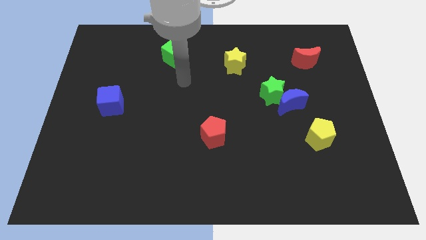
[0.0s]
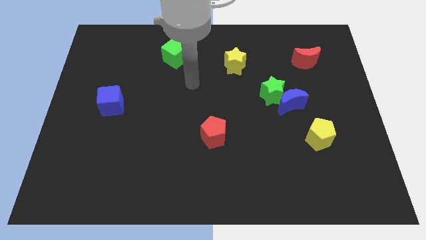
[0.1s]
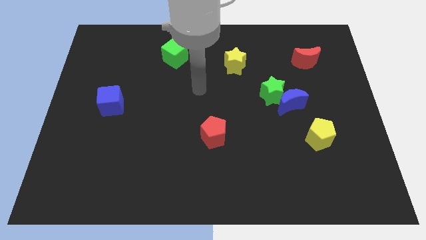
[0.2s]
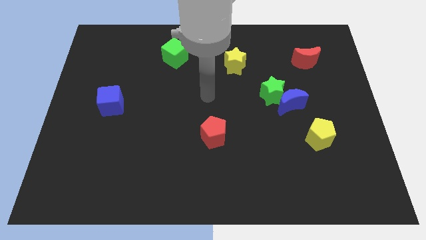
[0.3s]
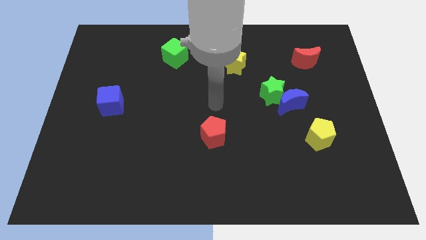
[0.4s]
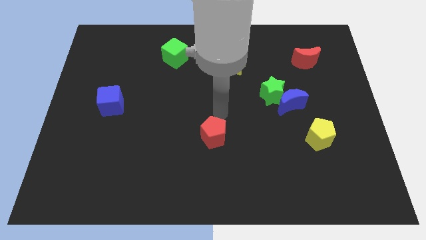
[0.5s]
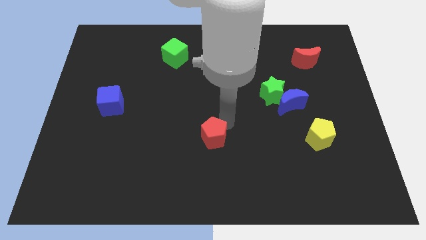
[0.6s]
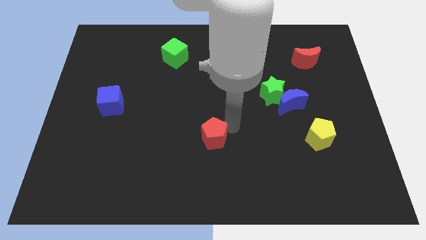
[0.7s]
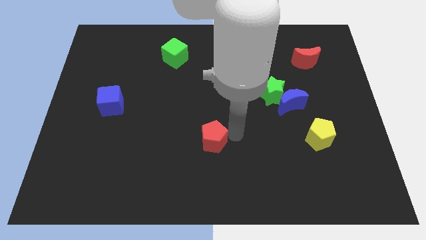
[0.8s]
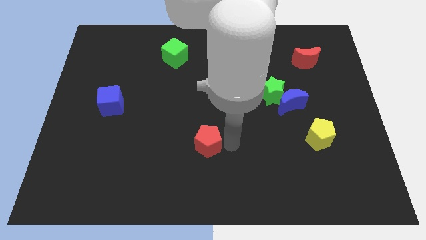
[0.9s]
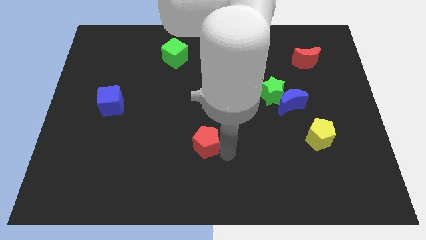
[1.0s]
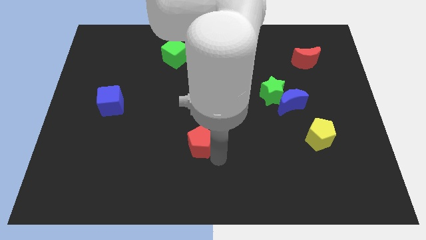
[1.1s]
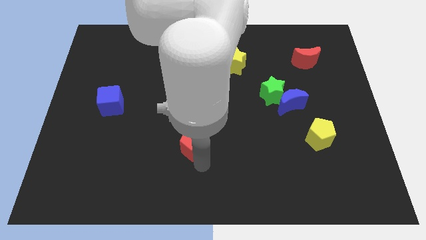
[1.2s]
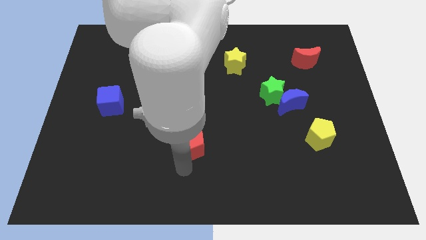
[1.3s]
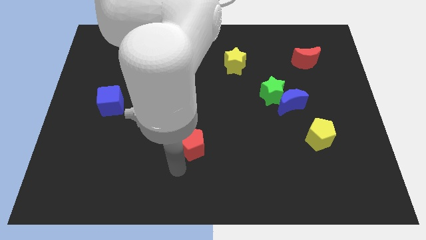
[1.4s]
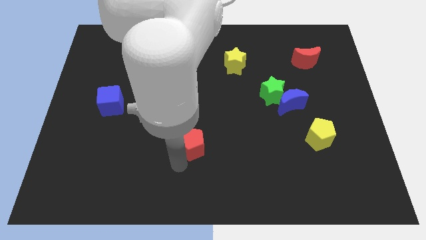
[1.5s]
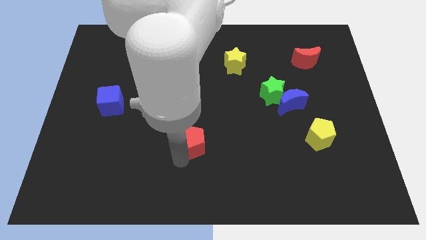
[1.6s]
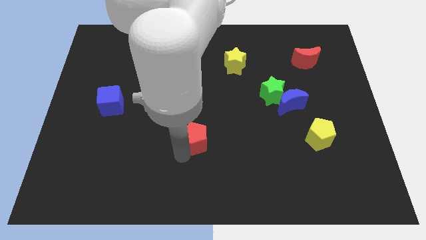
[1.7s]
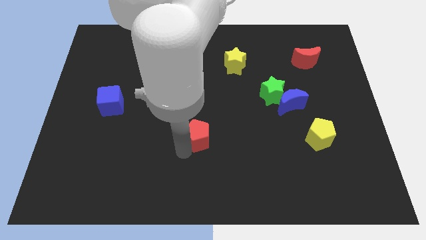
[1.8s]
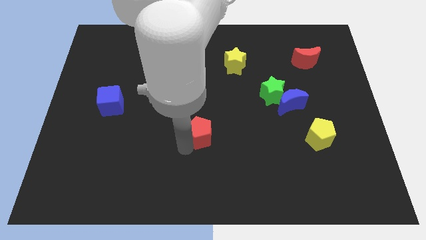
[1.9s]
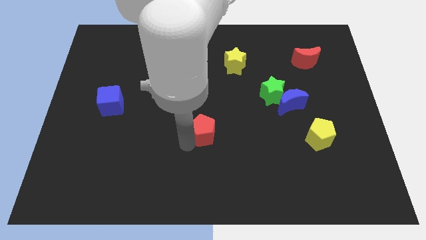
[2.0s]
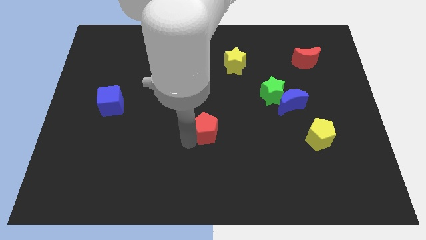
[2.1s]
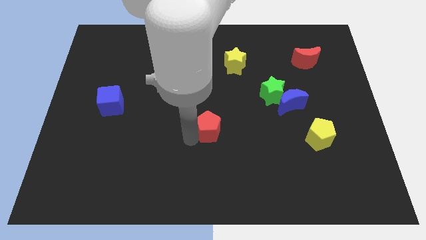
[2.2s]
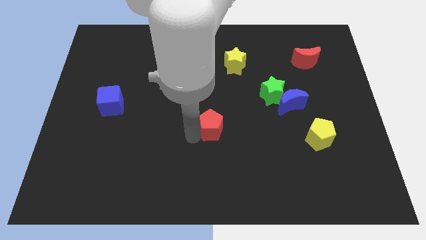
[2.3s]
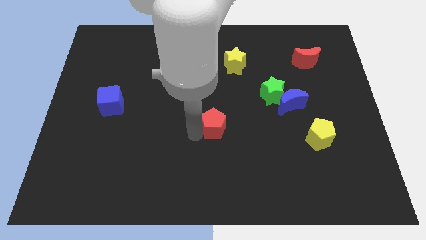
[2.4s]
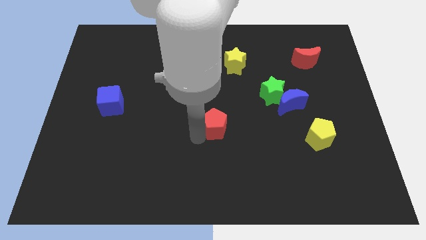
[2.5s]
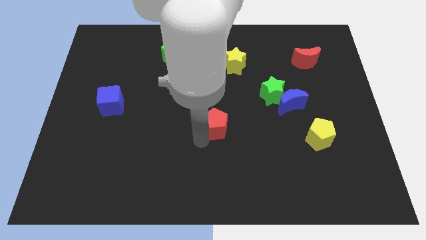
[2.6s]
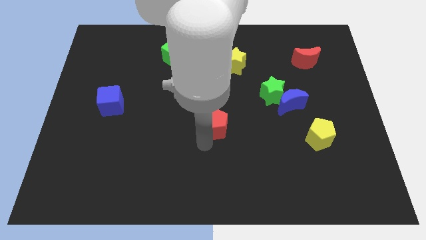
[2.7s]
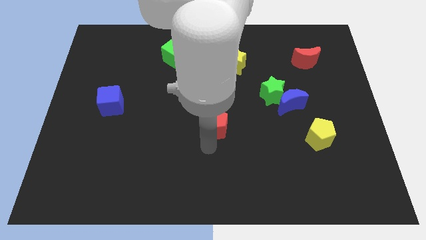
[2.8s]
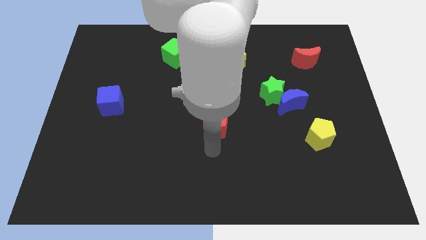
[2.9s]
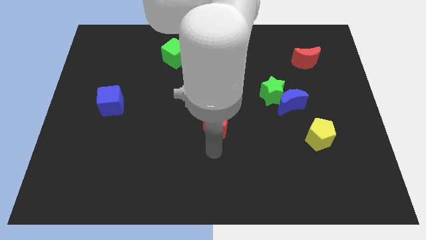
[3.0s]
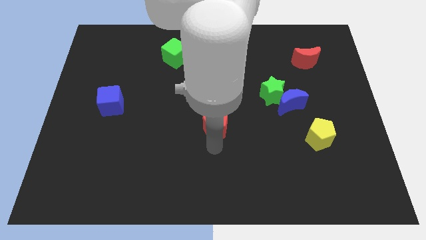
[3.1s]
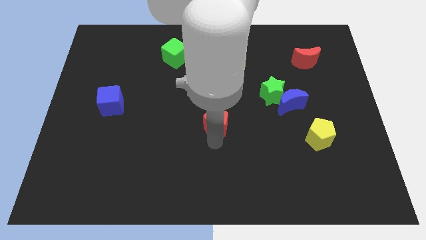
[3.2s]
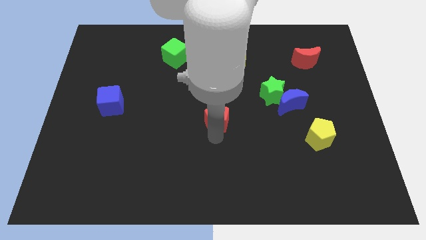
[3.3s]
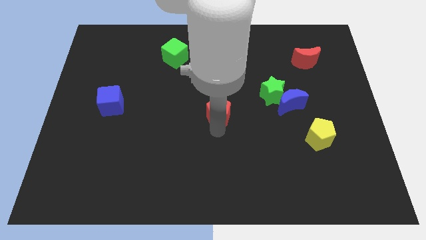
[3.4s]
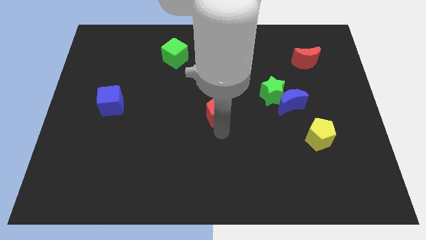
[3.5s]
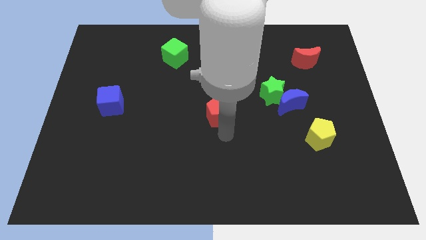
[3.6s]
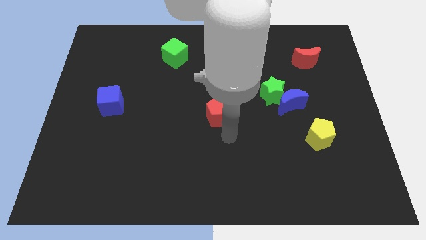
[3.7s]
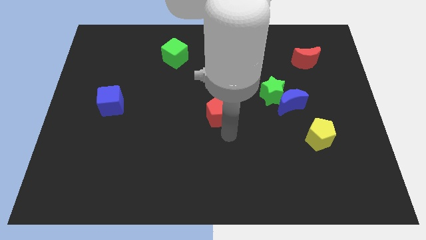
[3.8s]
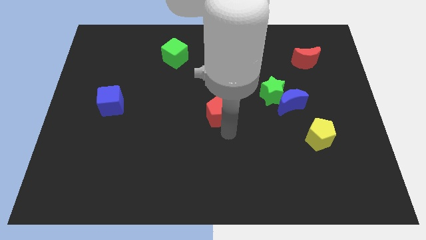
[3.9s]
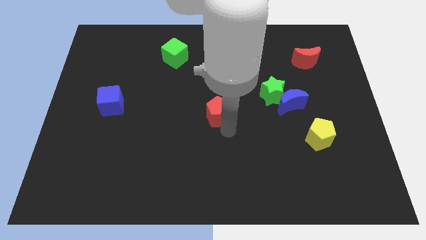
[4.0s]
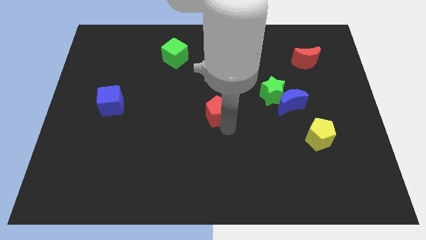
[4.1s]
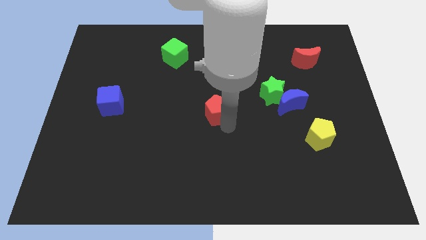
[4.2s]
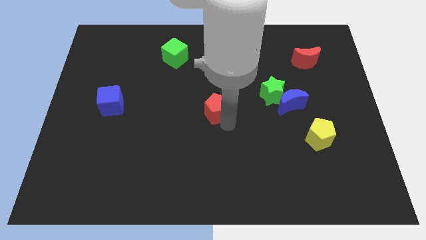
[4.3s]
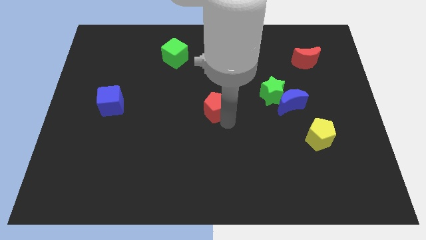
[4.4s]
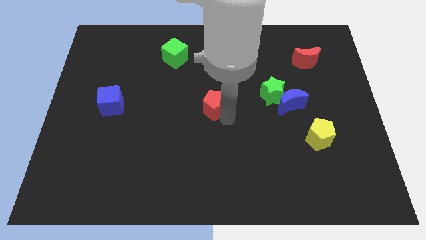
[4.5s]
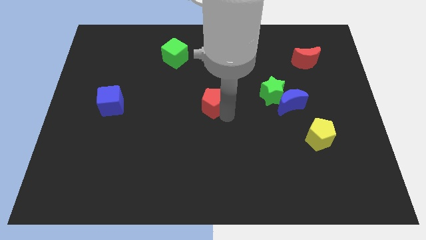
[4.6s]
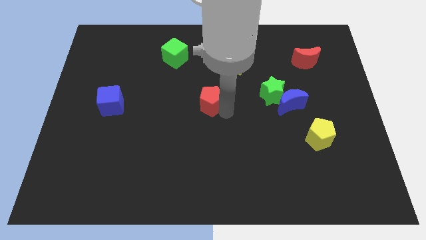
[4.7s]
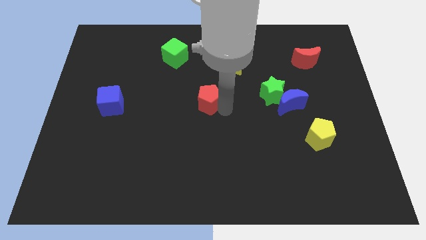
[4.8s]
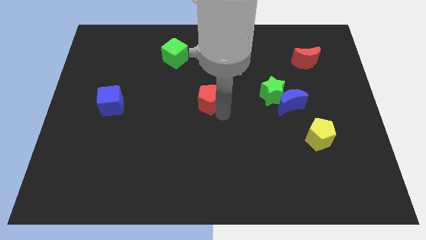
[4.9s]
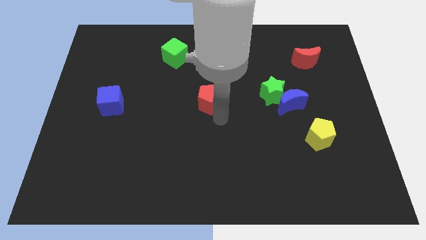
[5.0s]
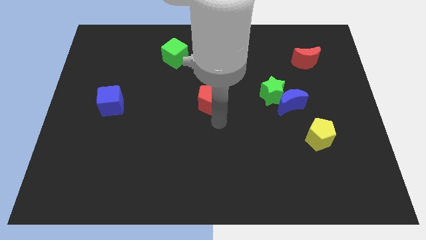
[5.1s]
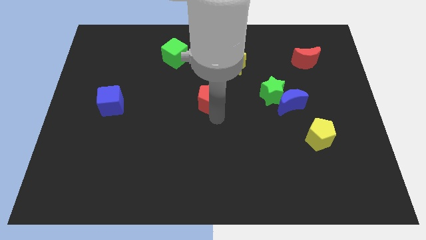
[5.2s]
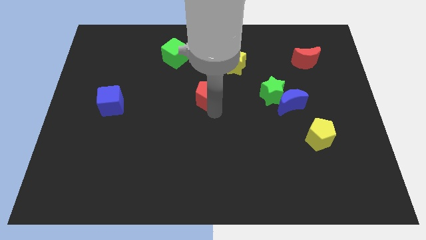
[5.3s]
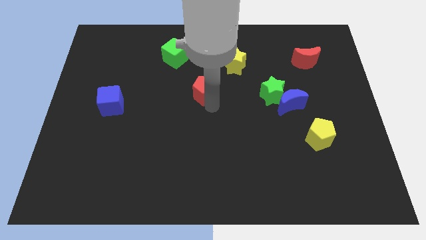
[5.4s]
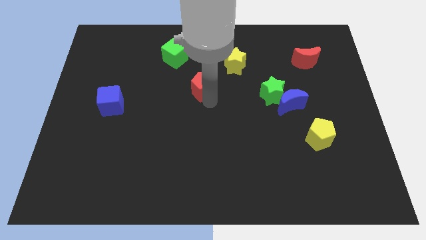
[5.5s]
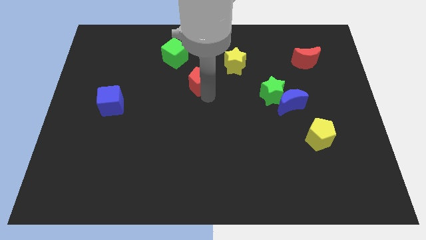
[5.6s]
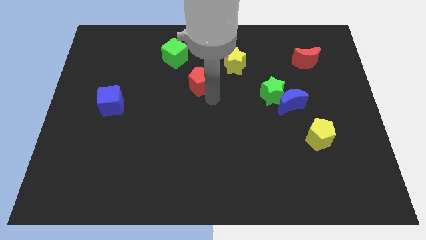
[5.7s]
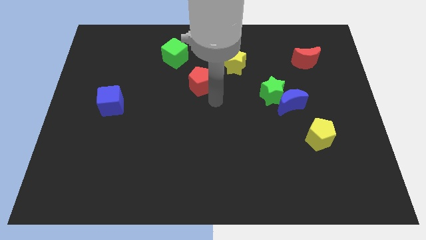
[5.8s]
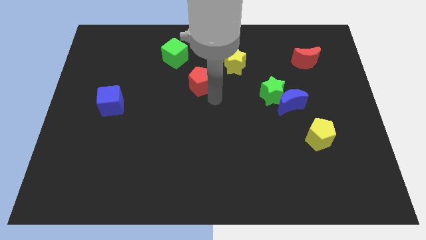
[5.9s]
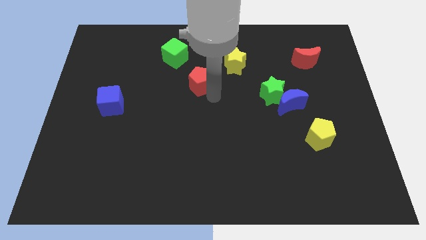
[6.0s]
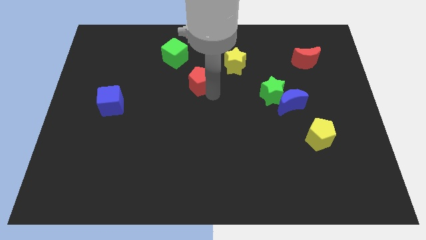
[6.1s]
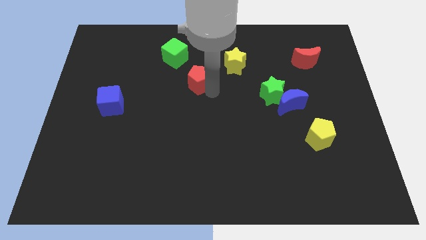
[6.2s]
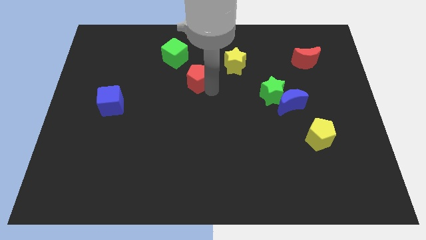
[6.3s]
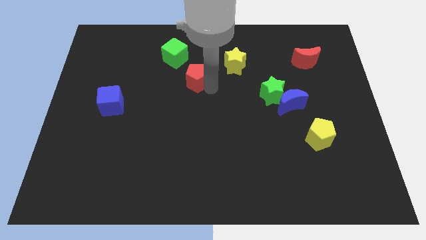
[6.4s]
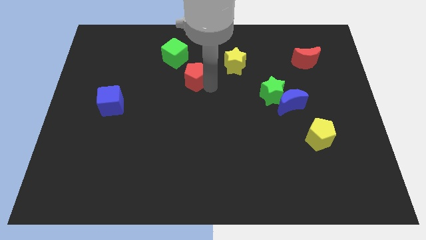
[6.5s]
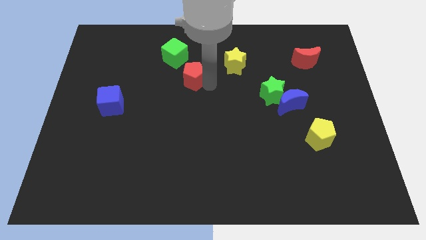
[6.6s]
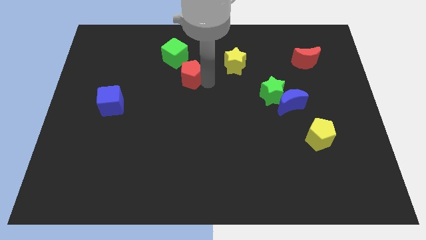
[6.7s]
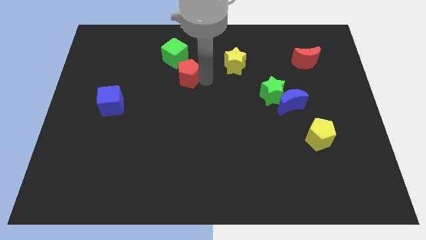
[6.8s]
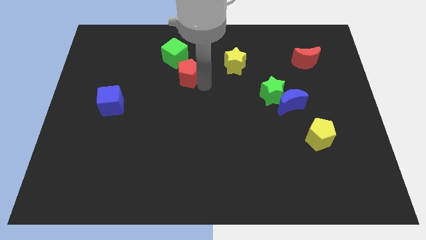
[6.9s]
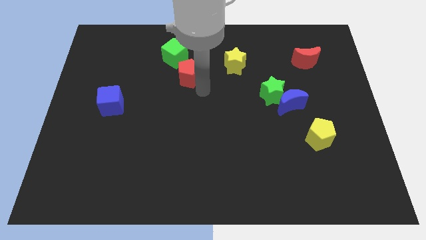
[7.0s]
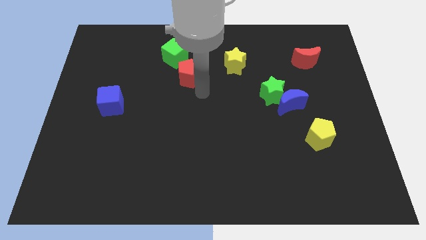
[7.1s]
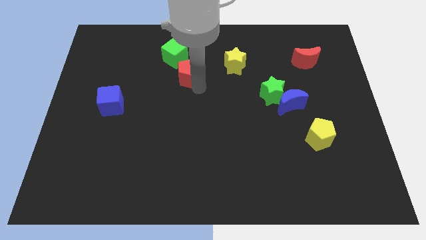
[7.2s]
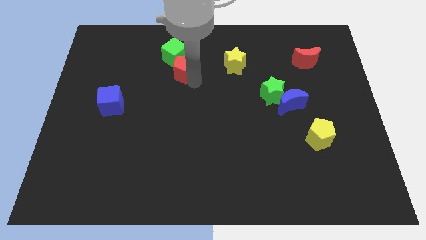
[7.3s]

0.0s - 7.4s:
put the red pentagon close to the green cube

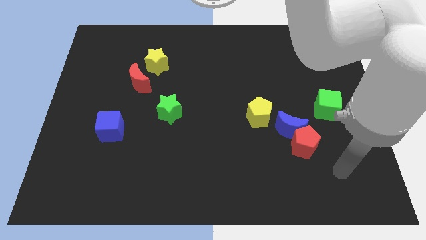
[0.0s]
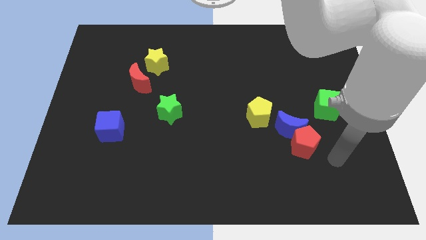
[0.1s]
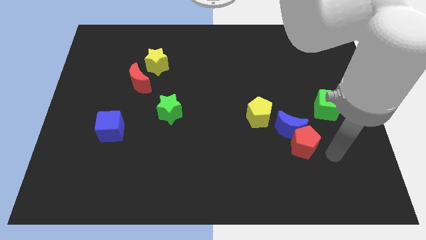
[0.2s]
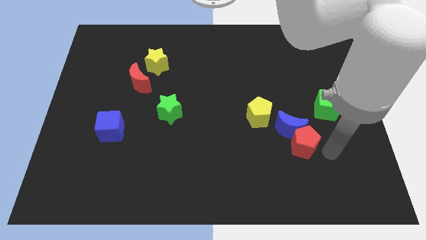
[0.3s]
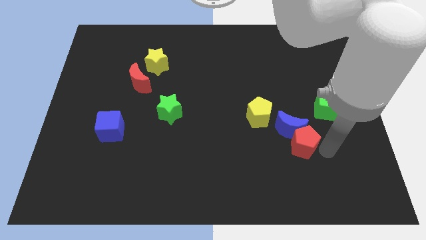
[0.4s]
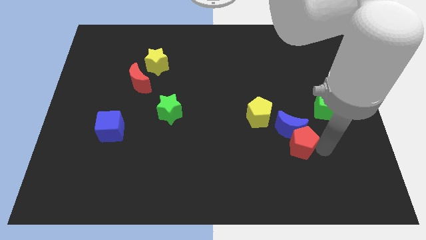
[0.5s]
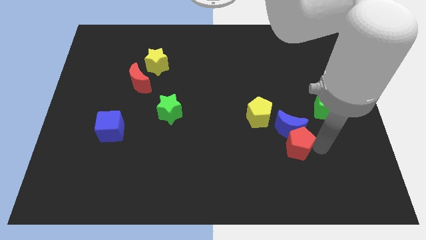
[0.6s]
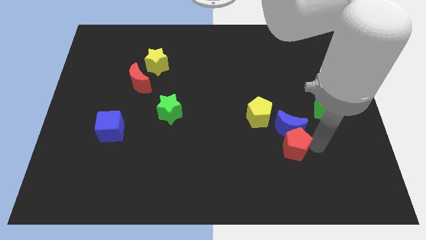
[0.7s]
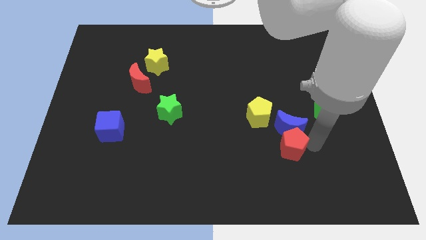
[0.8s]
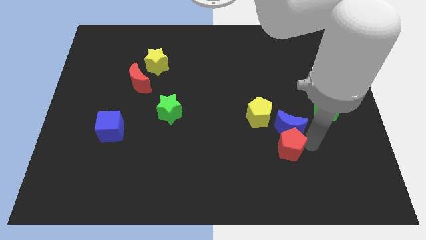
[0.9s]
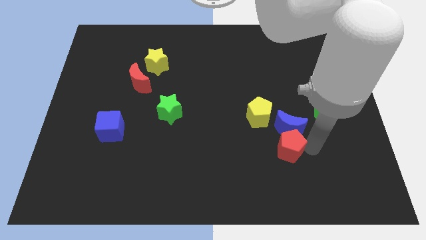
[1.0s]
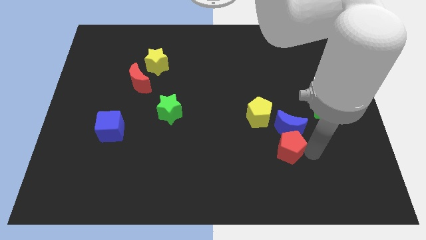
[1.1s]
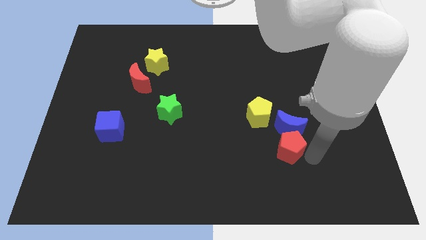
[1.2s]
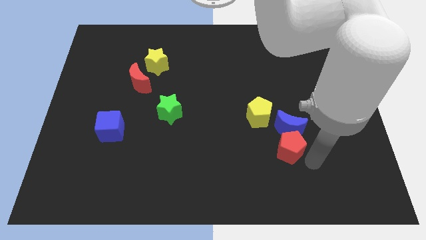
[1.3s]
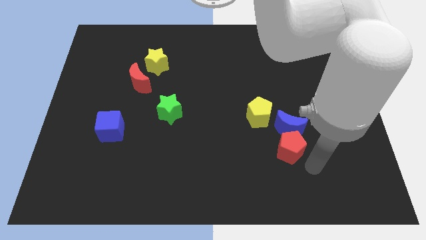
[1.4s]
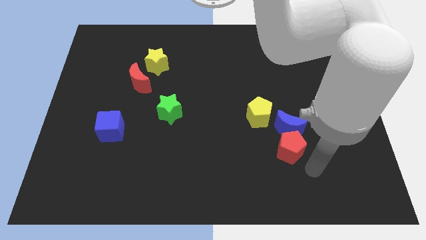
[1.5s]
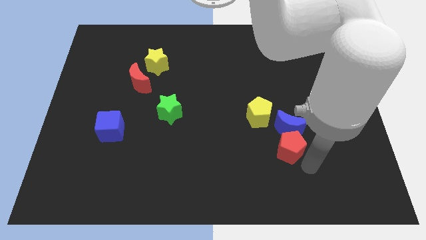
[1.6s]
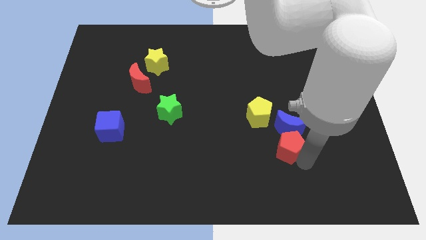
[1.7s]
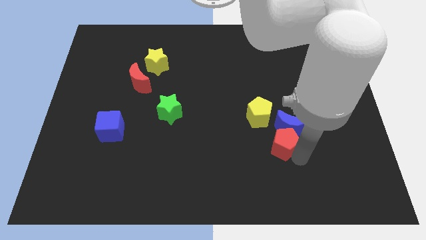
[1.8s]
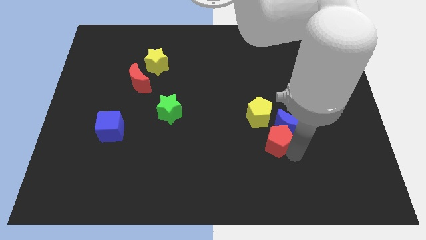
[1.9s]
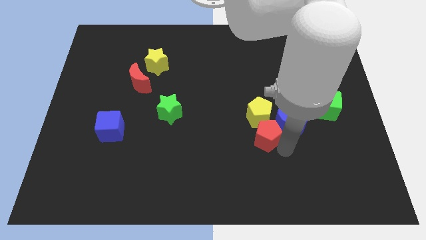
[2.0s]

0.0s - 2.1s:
slide the red pentagon to the yellow pentagon
